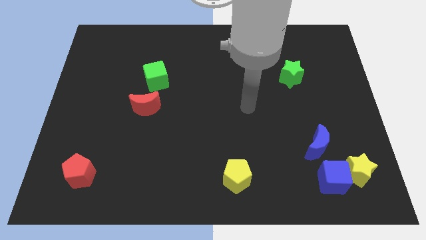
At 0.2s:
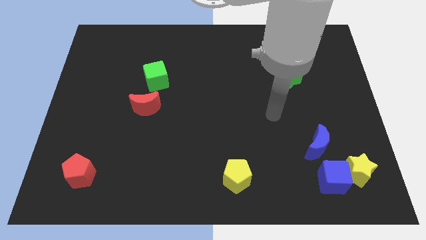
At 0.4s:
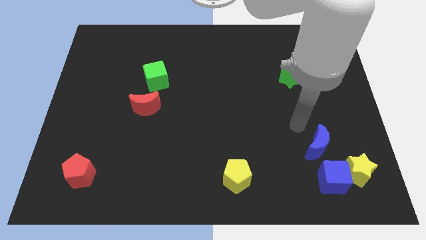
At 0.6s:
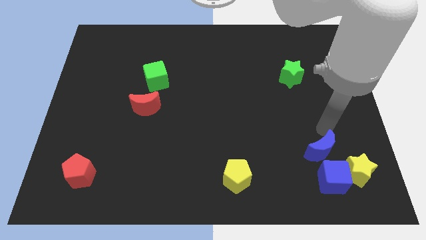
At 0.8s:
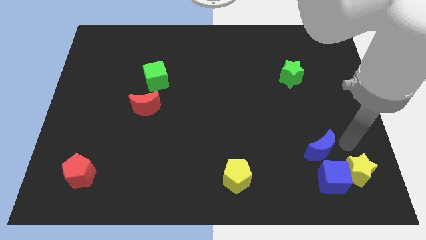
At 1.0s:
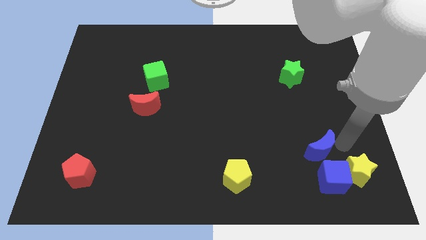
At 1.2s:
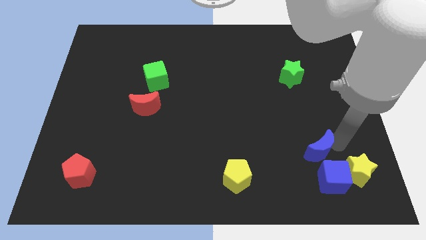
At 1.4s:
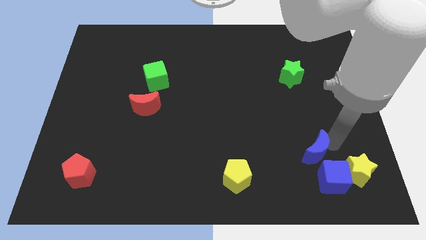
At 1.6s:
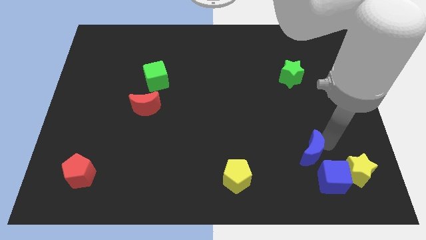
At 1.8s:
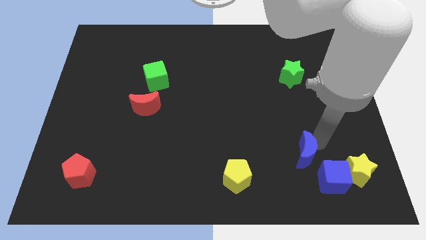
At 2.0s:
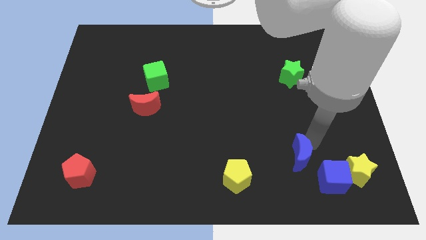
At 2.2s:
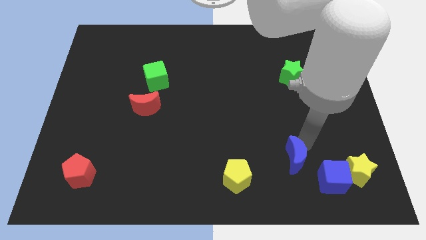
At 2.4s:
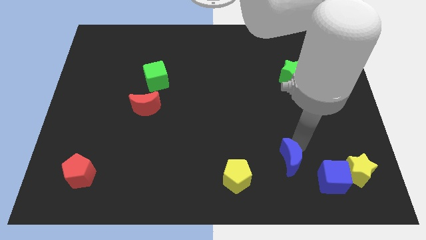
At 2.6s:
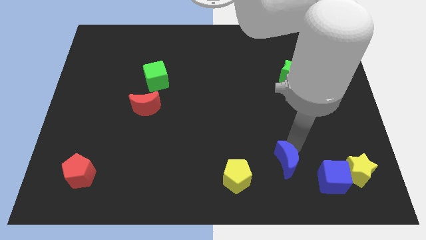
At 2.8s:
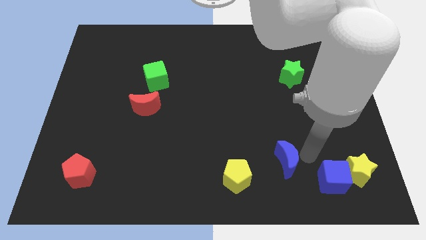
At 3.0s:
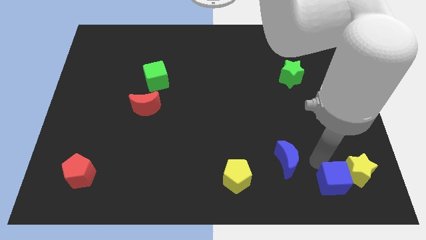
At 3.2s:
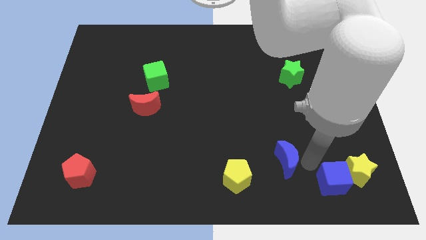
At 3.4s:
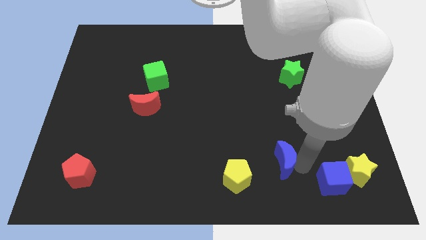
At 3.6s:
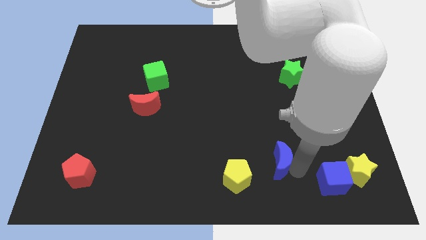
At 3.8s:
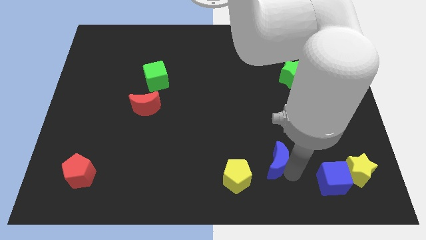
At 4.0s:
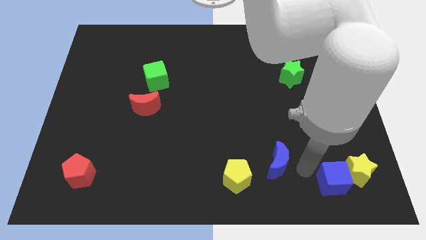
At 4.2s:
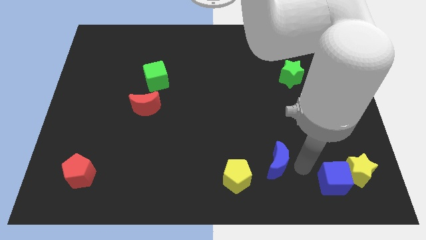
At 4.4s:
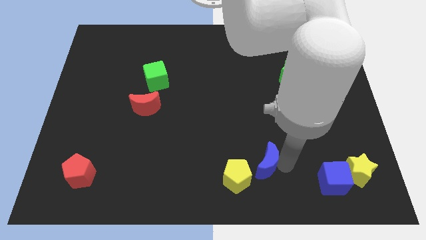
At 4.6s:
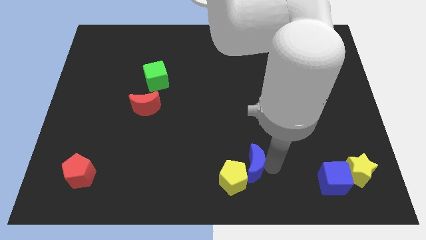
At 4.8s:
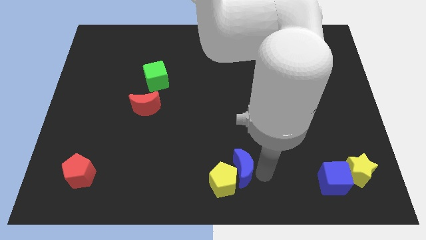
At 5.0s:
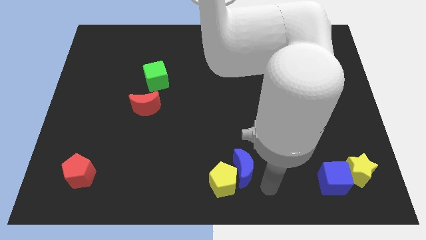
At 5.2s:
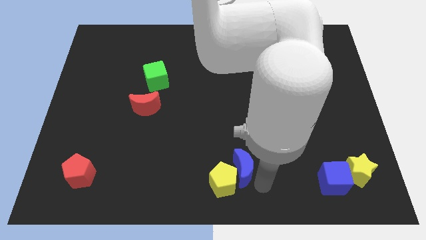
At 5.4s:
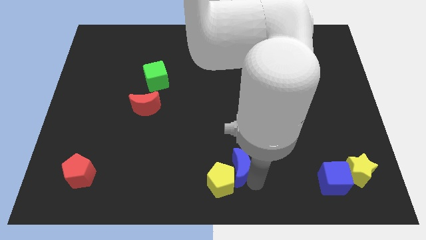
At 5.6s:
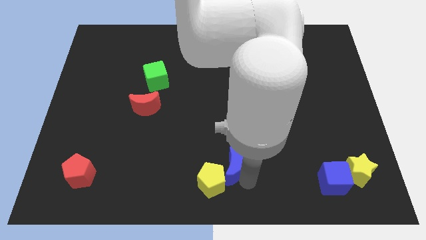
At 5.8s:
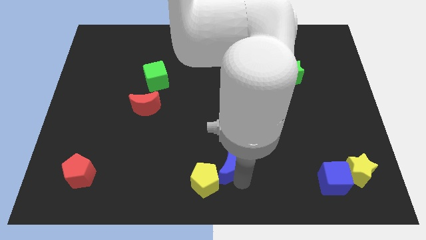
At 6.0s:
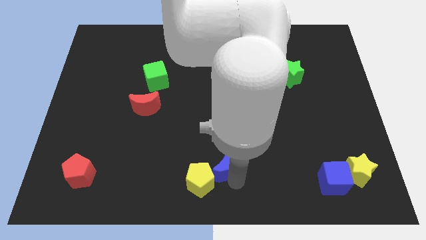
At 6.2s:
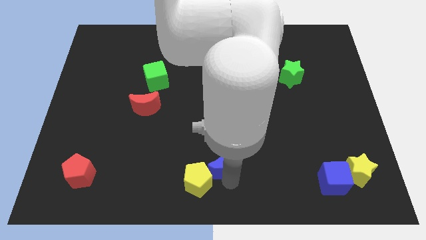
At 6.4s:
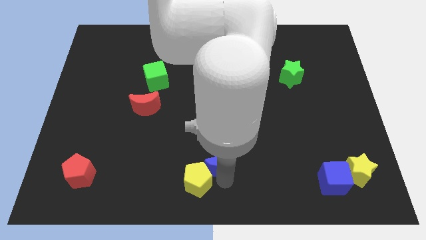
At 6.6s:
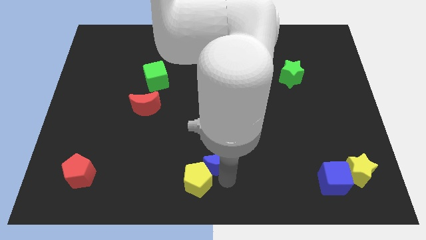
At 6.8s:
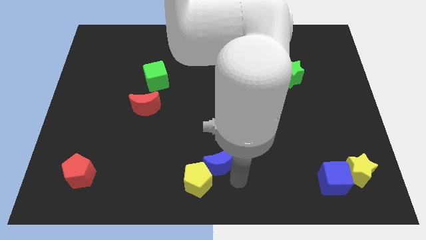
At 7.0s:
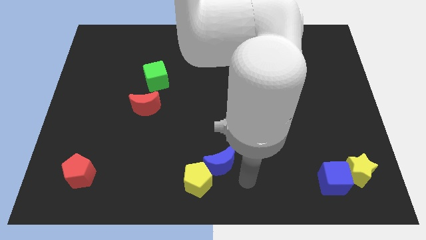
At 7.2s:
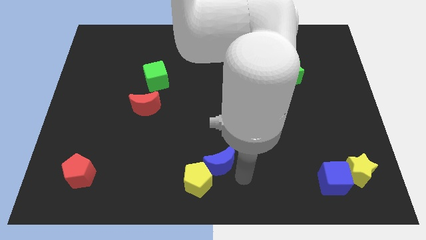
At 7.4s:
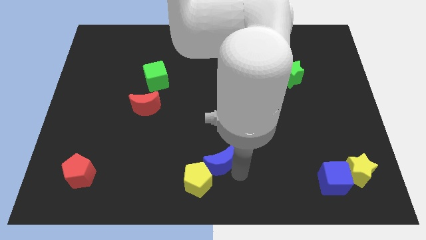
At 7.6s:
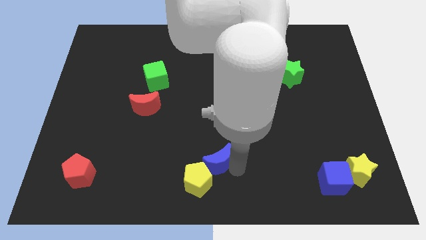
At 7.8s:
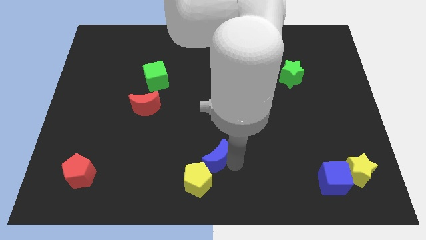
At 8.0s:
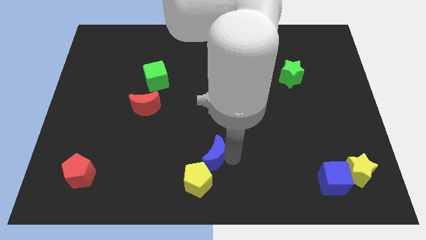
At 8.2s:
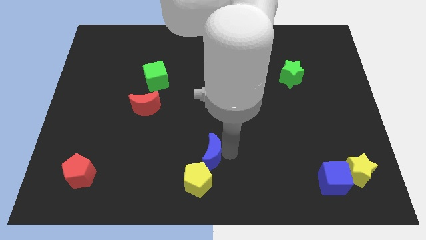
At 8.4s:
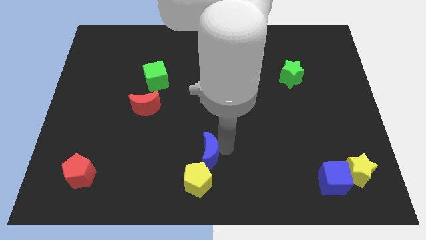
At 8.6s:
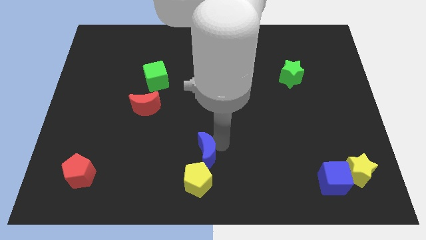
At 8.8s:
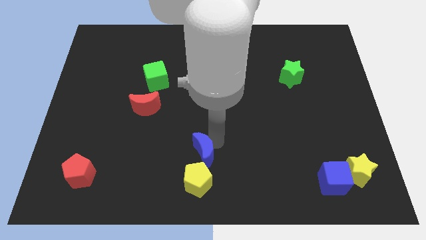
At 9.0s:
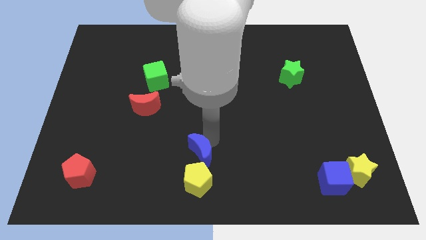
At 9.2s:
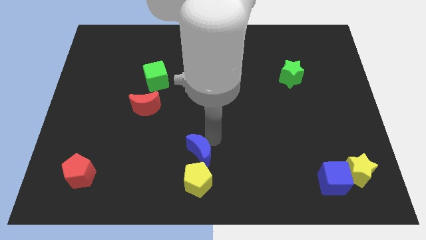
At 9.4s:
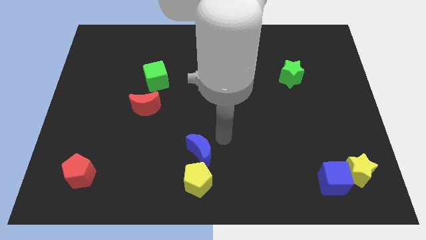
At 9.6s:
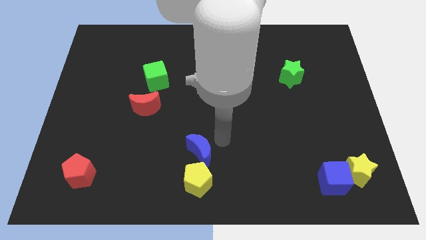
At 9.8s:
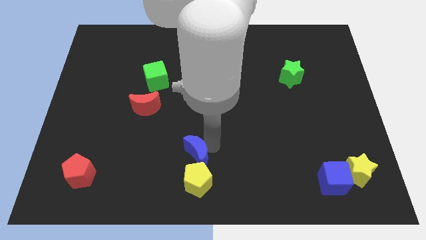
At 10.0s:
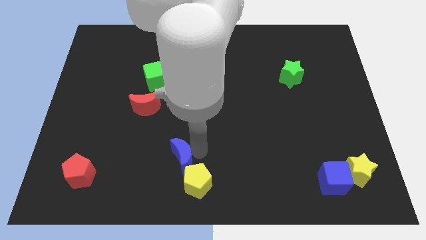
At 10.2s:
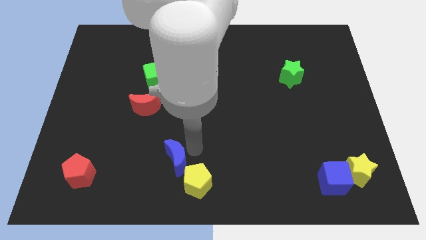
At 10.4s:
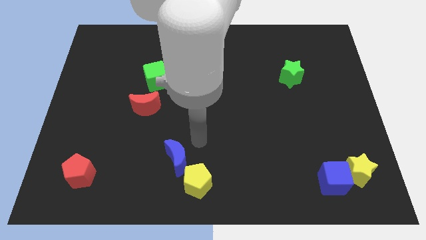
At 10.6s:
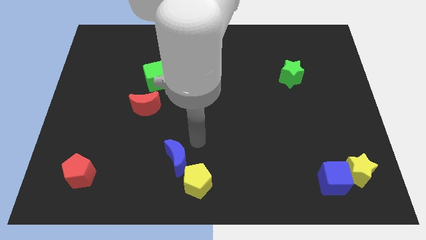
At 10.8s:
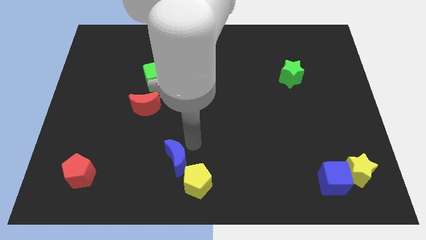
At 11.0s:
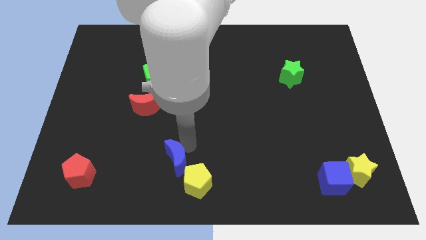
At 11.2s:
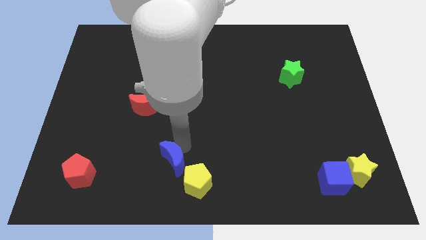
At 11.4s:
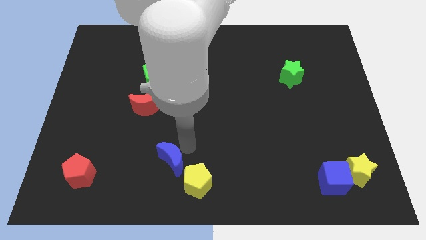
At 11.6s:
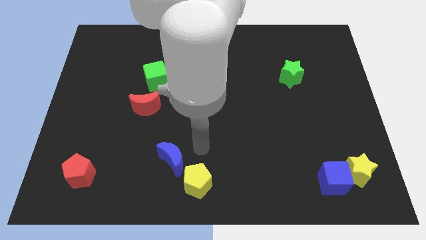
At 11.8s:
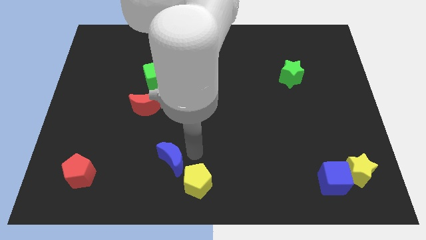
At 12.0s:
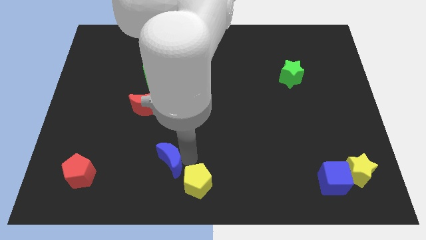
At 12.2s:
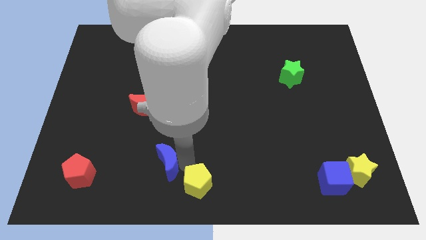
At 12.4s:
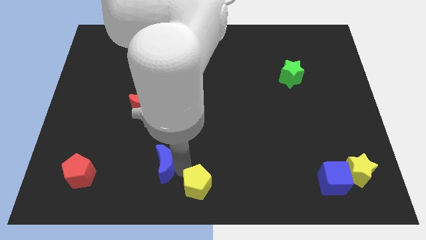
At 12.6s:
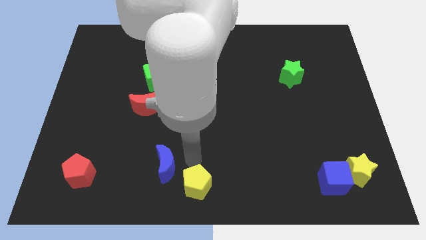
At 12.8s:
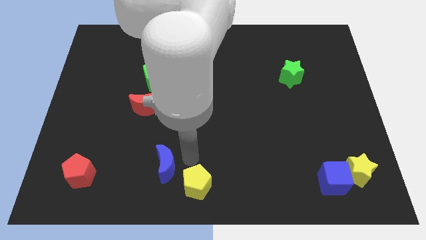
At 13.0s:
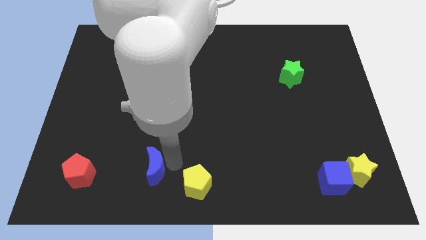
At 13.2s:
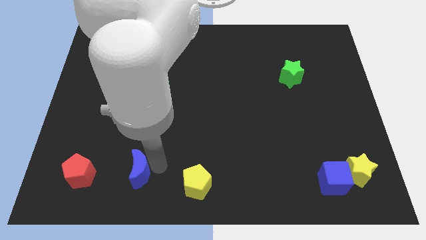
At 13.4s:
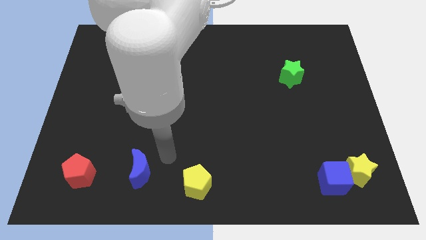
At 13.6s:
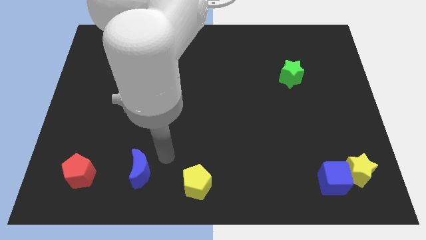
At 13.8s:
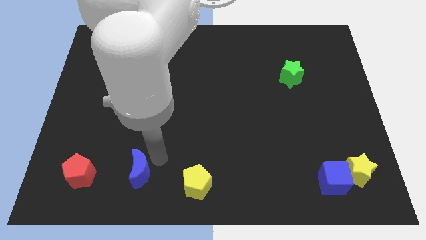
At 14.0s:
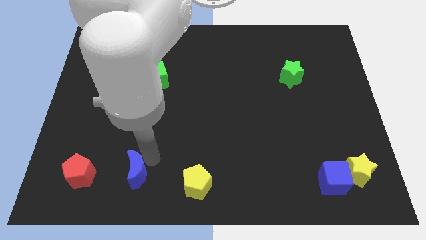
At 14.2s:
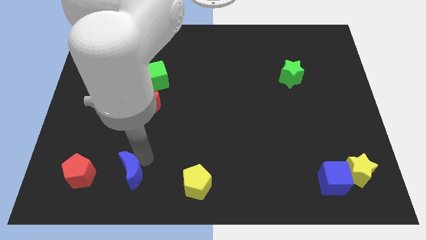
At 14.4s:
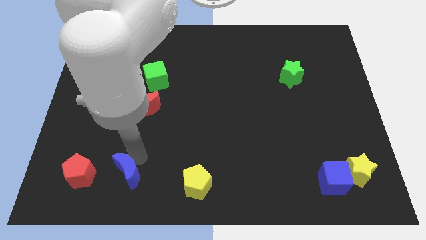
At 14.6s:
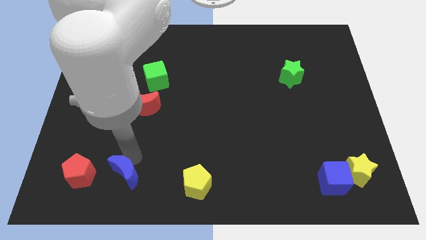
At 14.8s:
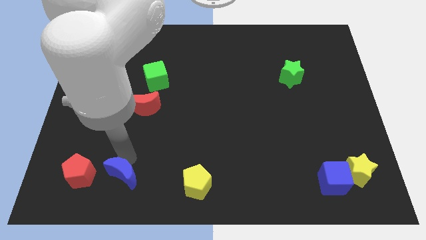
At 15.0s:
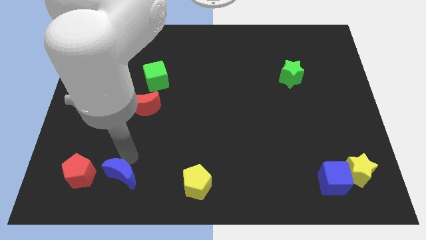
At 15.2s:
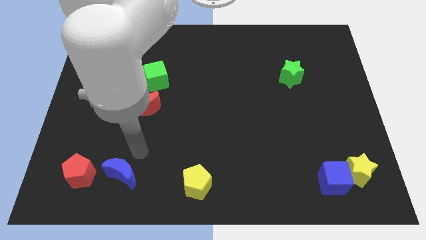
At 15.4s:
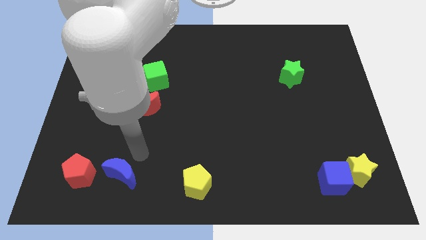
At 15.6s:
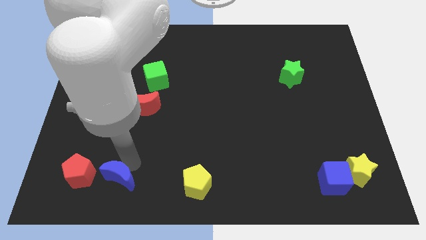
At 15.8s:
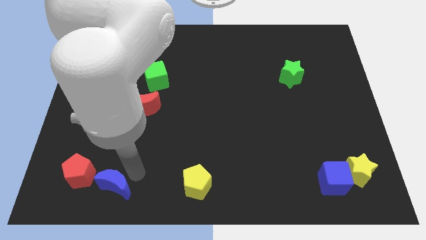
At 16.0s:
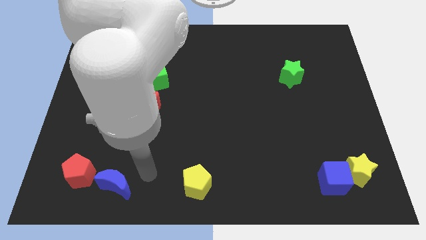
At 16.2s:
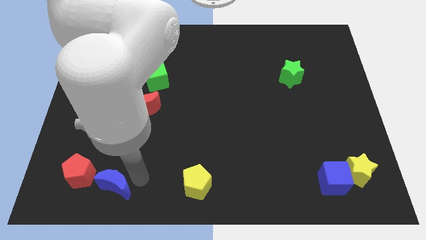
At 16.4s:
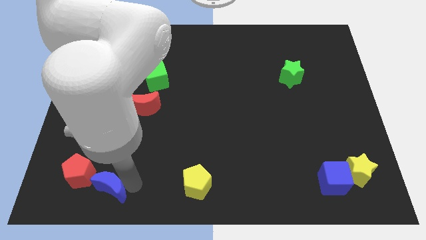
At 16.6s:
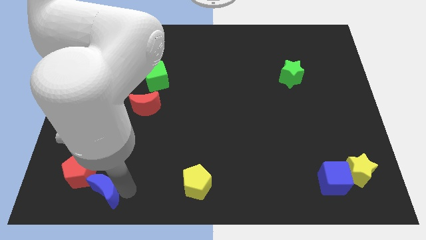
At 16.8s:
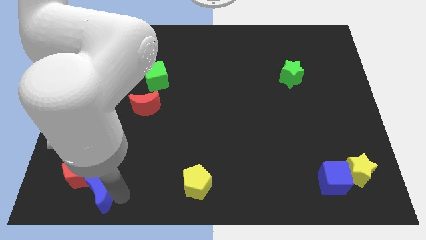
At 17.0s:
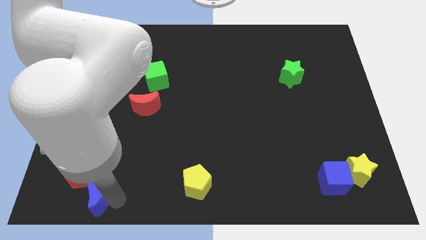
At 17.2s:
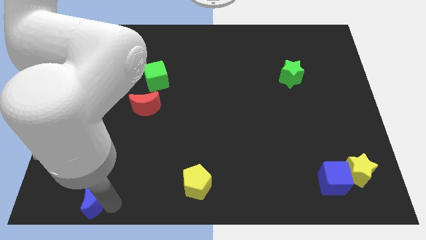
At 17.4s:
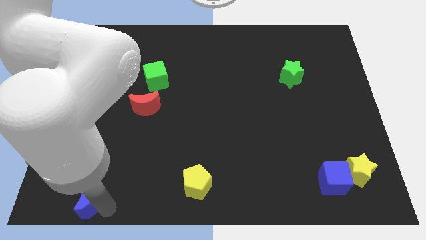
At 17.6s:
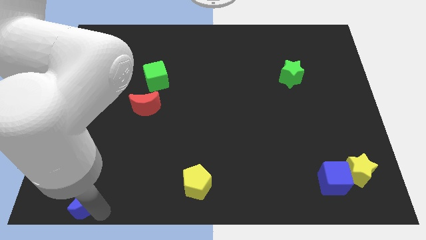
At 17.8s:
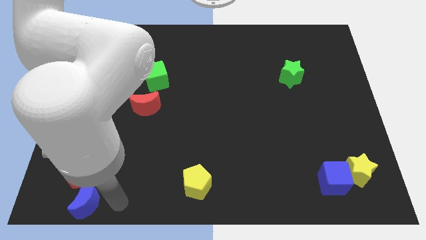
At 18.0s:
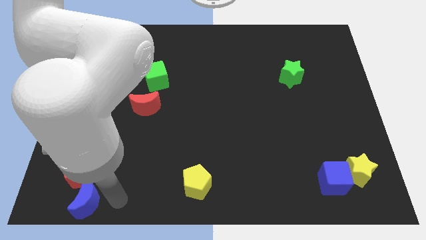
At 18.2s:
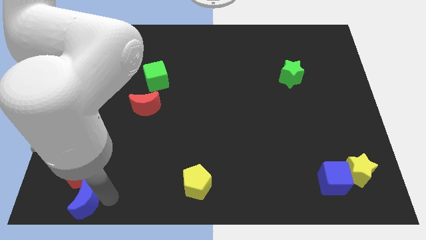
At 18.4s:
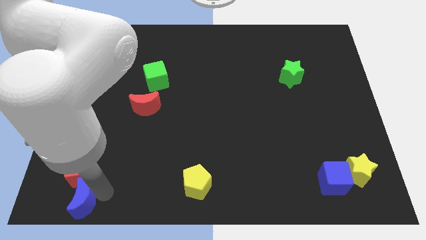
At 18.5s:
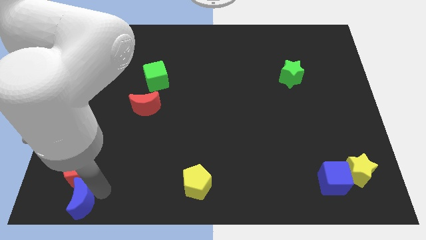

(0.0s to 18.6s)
put the blue moon to the bottom left of the board
